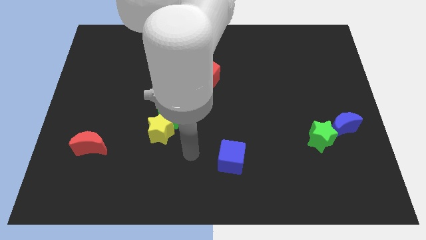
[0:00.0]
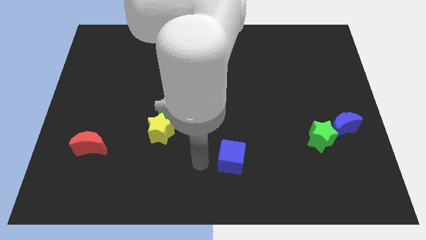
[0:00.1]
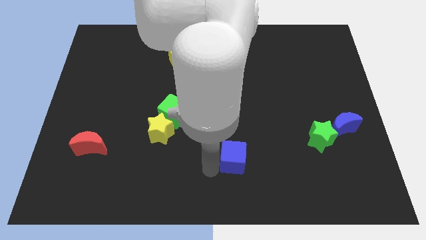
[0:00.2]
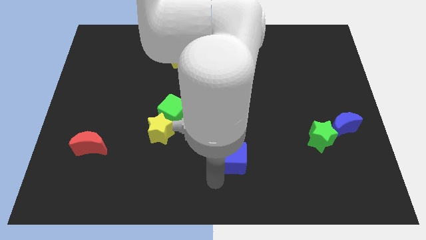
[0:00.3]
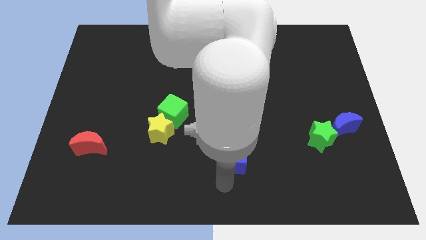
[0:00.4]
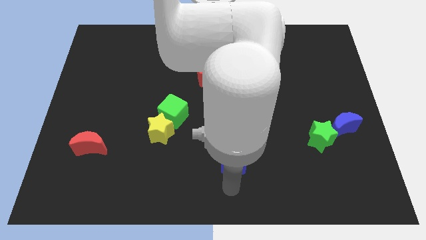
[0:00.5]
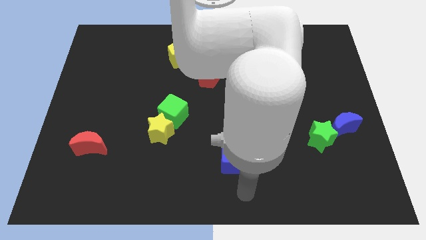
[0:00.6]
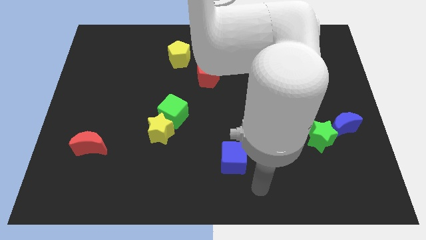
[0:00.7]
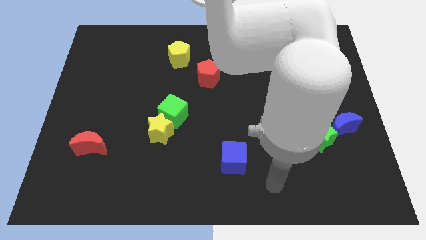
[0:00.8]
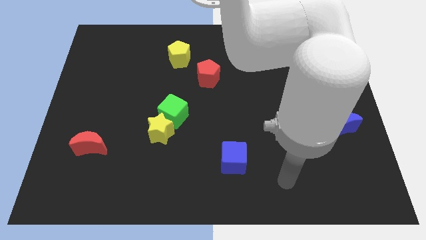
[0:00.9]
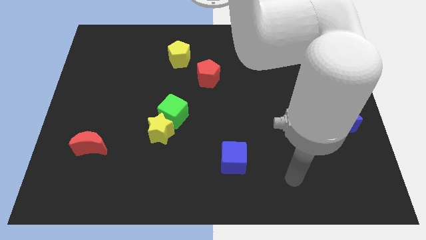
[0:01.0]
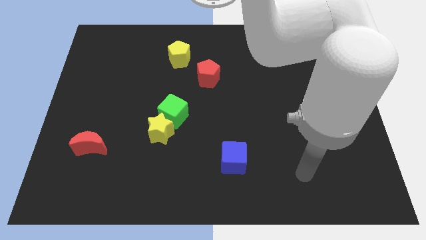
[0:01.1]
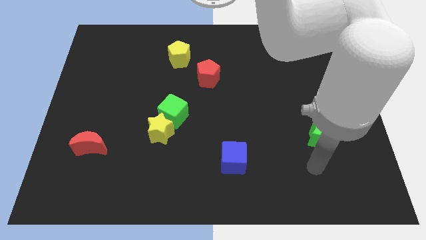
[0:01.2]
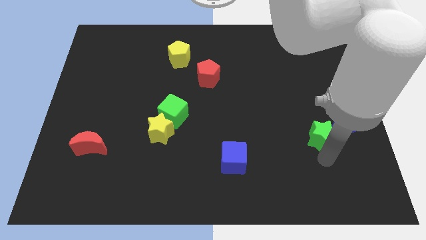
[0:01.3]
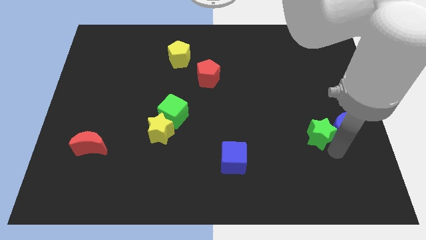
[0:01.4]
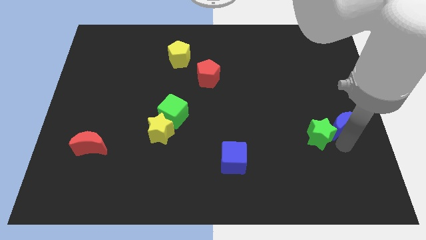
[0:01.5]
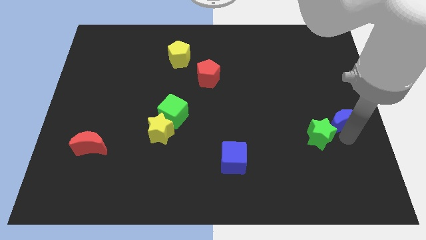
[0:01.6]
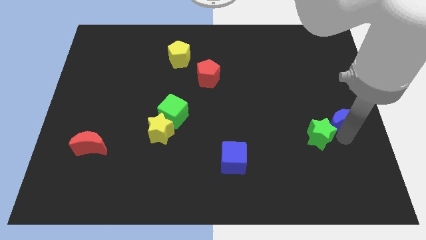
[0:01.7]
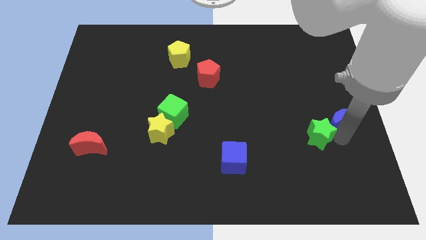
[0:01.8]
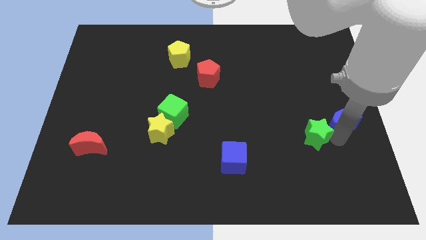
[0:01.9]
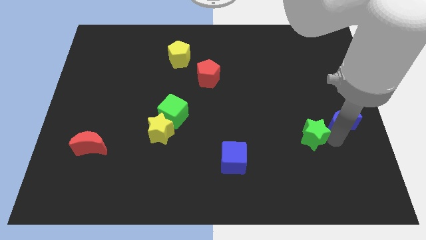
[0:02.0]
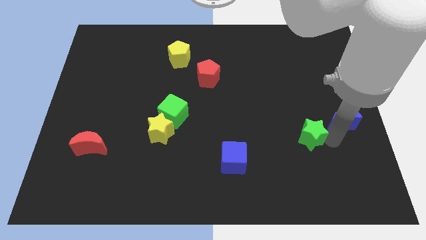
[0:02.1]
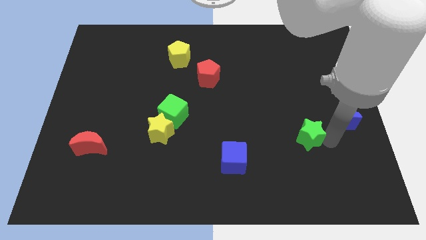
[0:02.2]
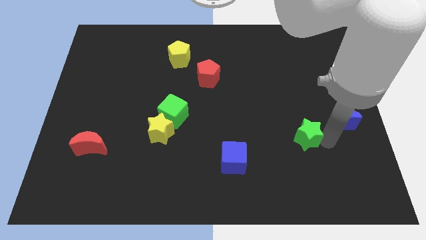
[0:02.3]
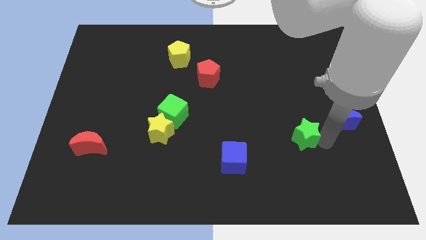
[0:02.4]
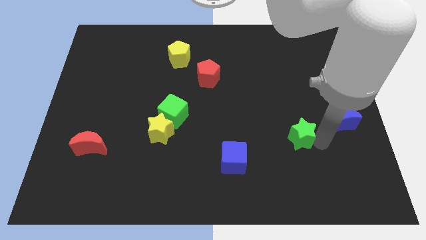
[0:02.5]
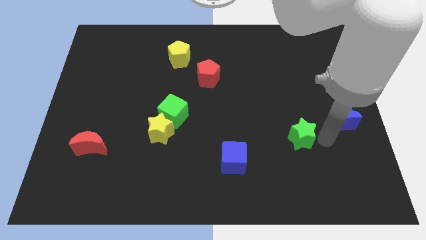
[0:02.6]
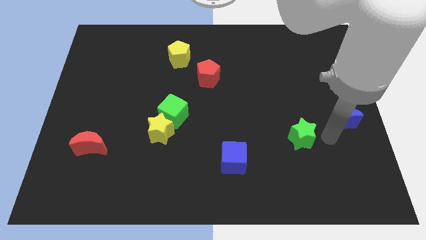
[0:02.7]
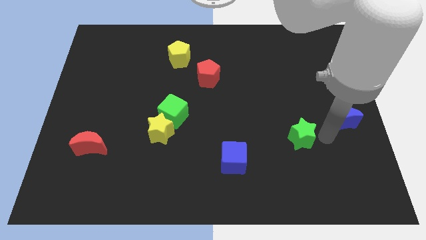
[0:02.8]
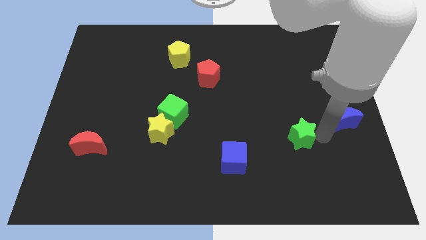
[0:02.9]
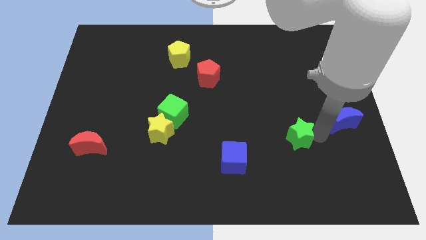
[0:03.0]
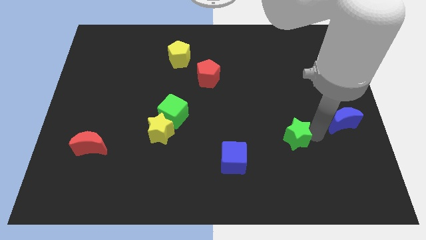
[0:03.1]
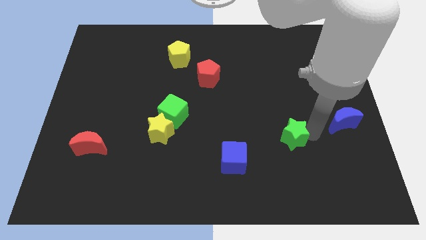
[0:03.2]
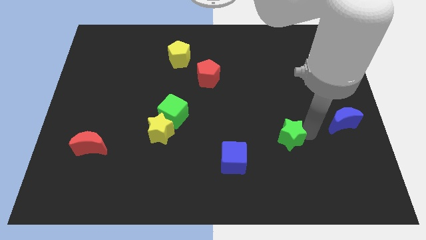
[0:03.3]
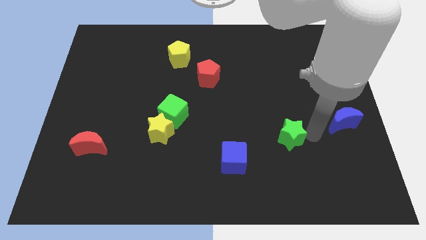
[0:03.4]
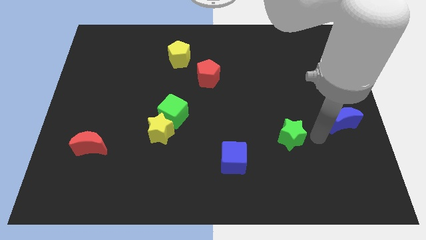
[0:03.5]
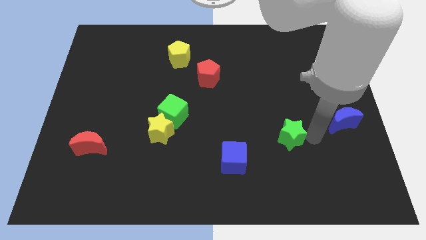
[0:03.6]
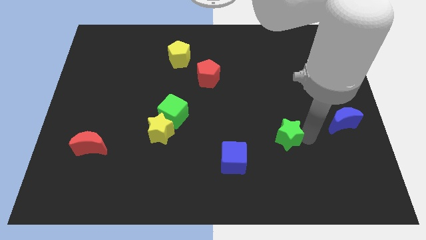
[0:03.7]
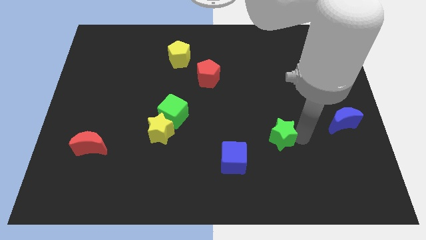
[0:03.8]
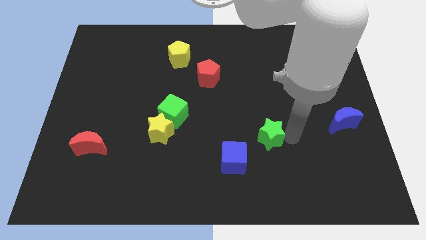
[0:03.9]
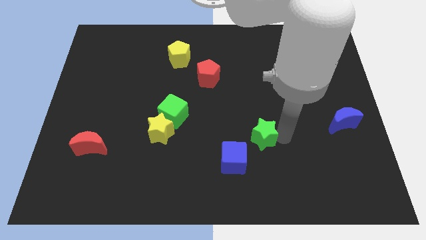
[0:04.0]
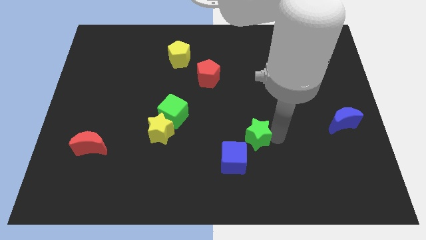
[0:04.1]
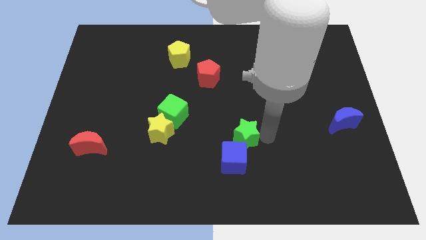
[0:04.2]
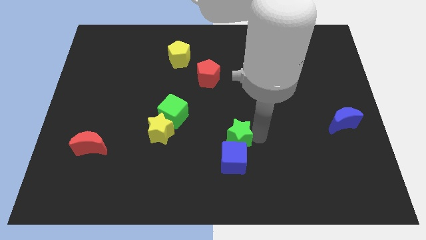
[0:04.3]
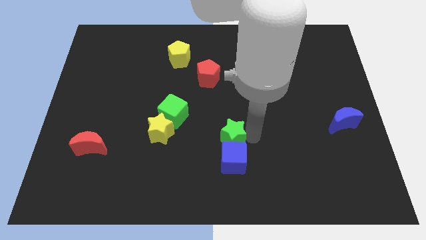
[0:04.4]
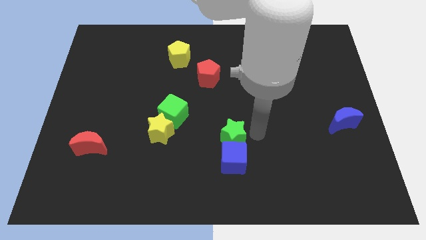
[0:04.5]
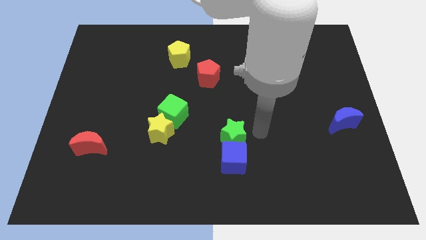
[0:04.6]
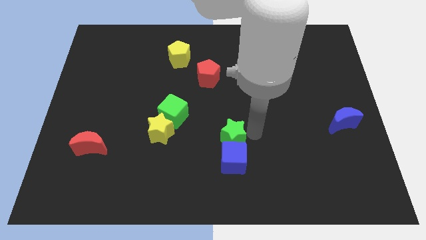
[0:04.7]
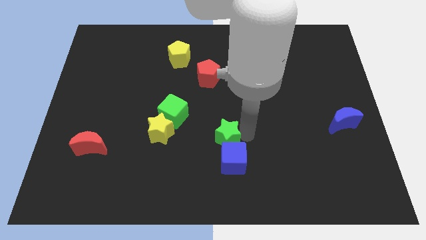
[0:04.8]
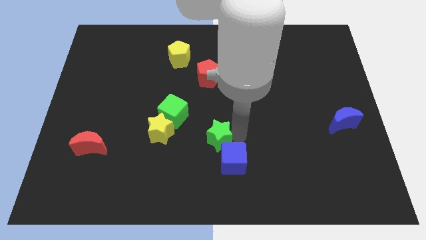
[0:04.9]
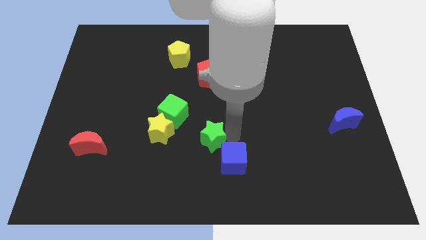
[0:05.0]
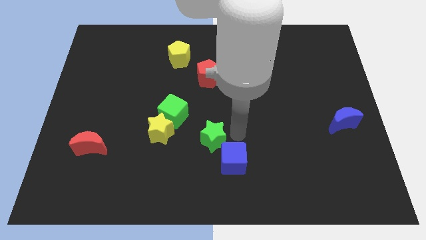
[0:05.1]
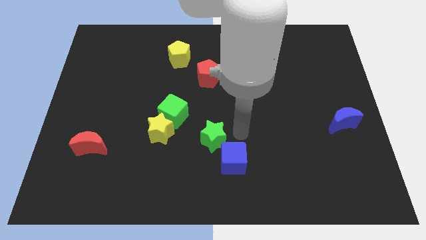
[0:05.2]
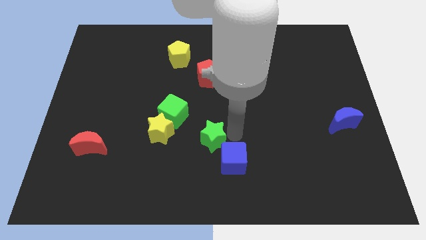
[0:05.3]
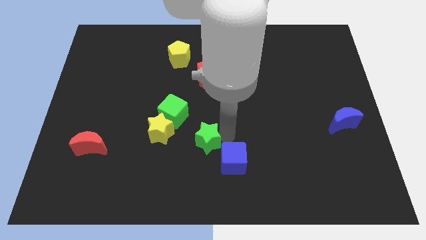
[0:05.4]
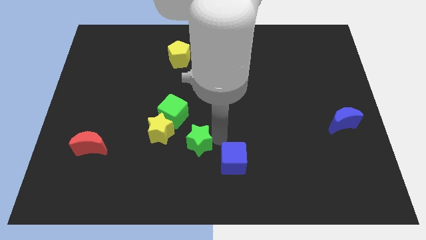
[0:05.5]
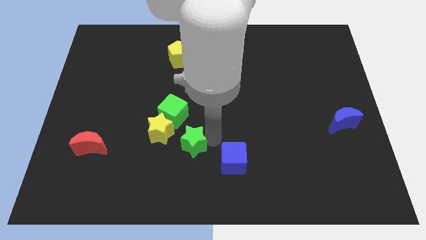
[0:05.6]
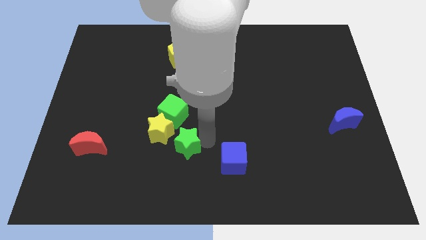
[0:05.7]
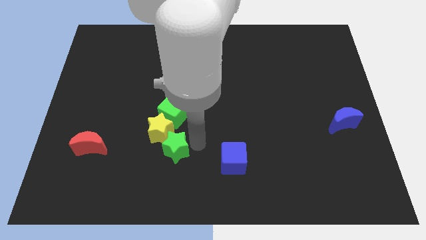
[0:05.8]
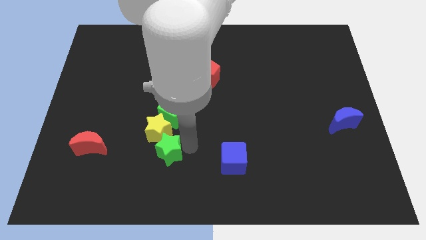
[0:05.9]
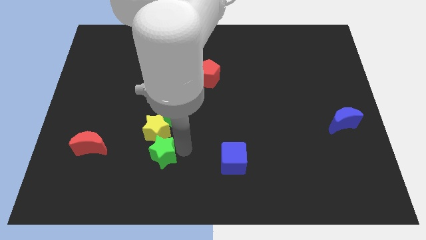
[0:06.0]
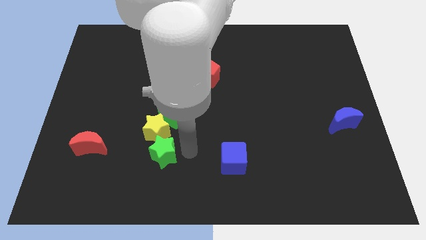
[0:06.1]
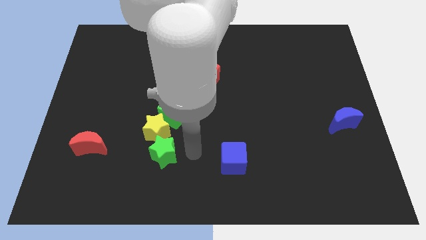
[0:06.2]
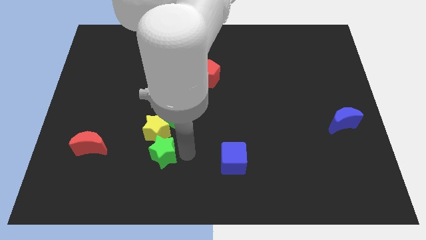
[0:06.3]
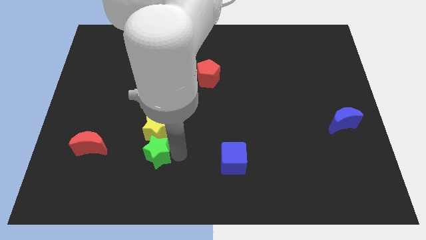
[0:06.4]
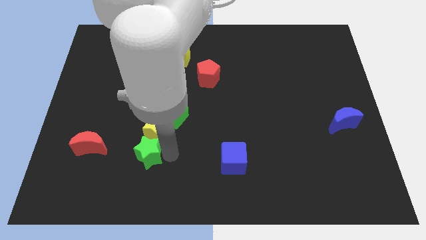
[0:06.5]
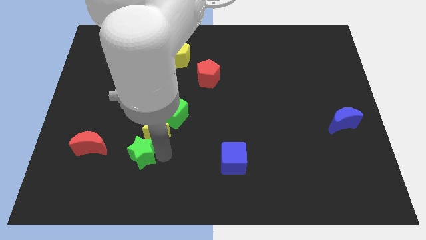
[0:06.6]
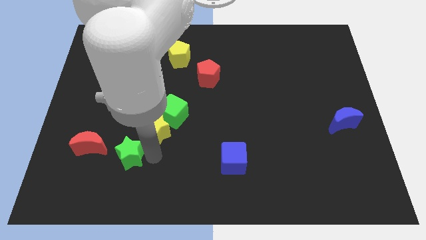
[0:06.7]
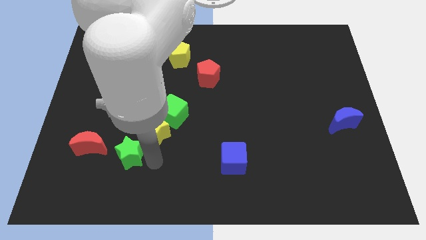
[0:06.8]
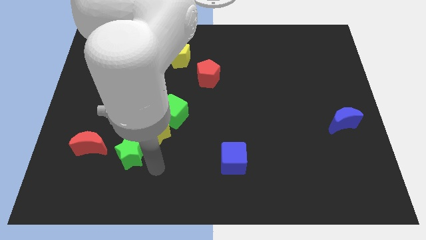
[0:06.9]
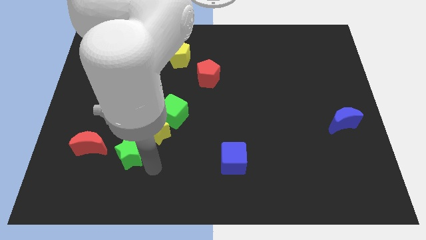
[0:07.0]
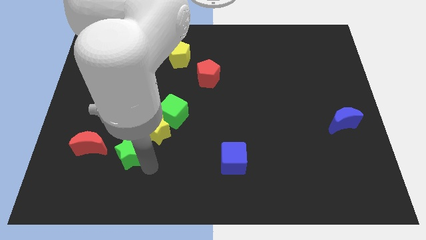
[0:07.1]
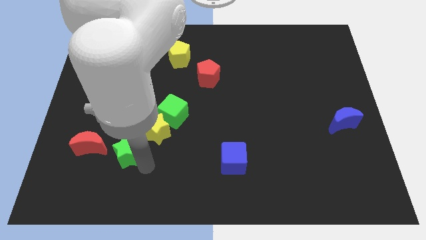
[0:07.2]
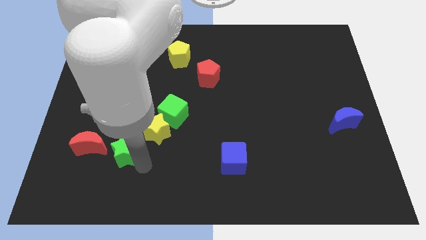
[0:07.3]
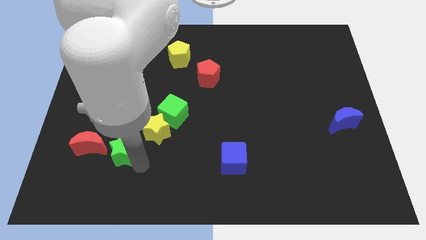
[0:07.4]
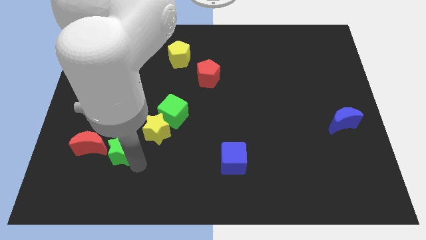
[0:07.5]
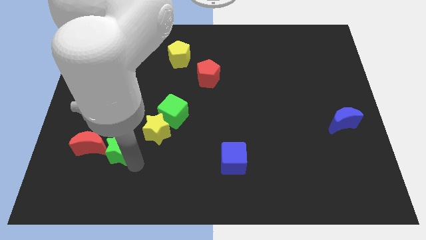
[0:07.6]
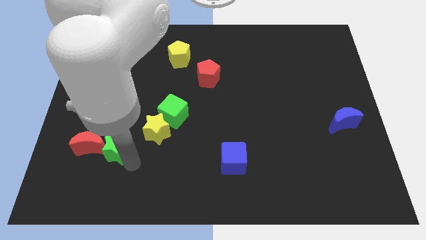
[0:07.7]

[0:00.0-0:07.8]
slide the green star next to the red moon
